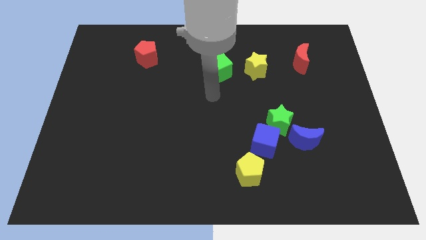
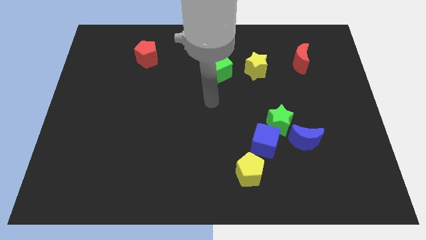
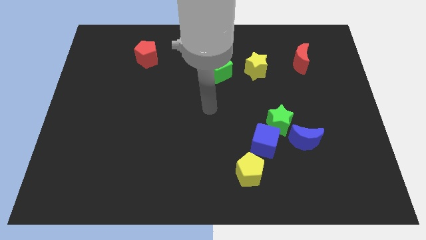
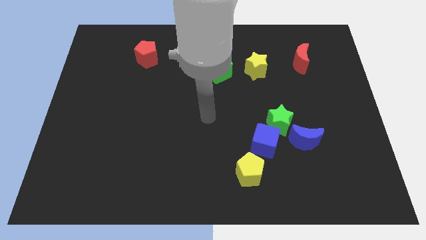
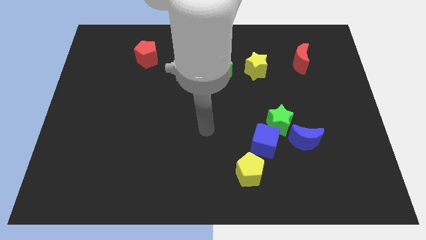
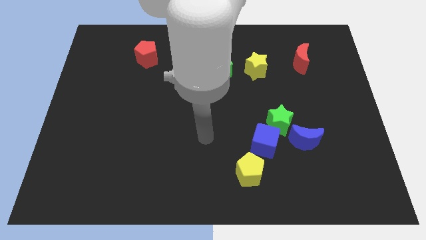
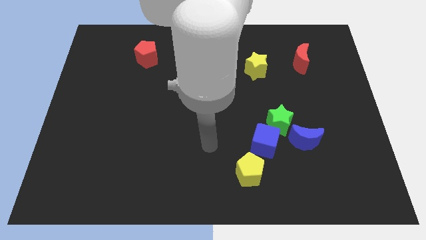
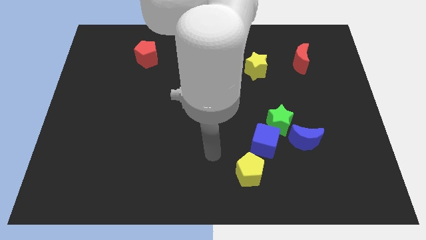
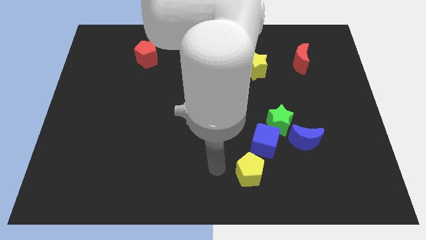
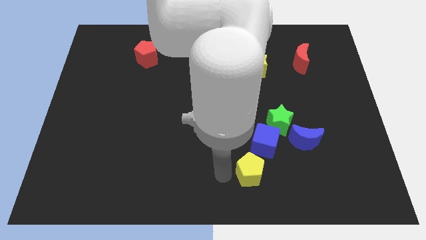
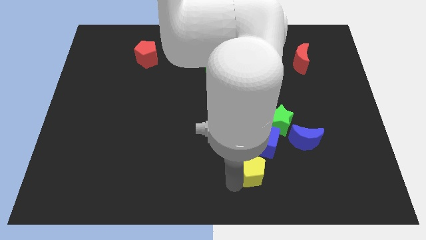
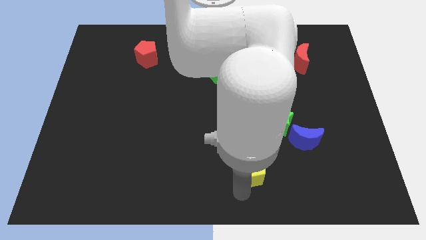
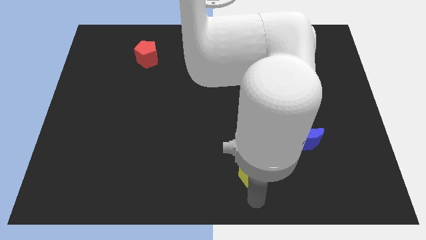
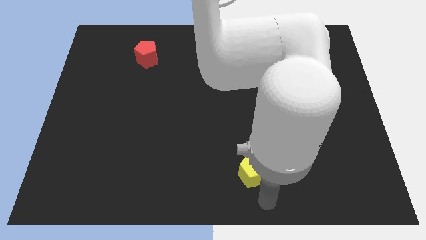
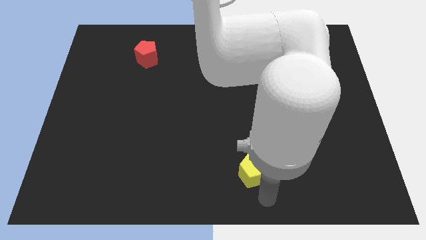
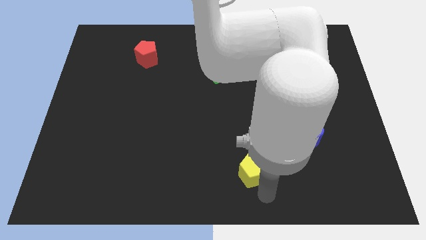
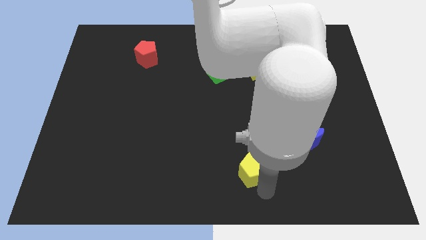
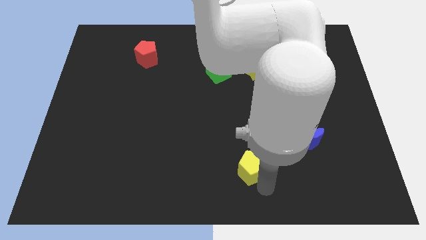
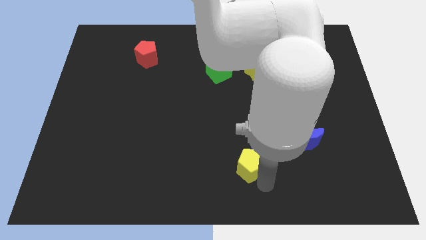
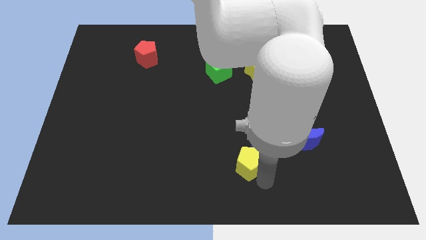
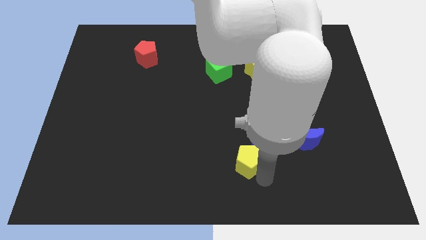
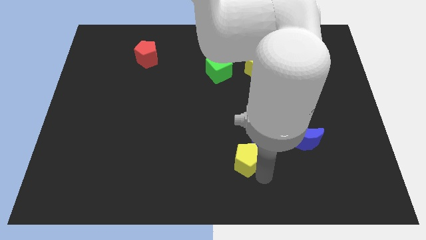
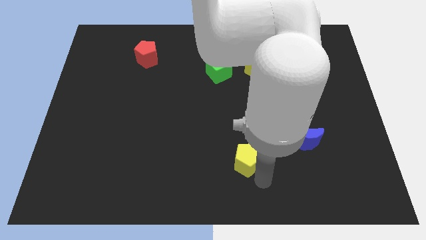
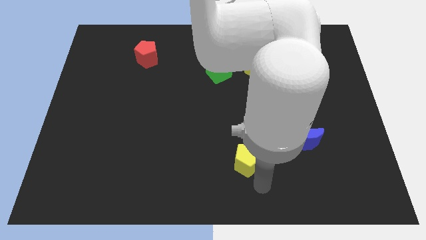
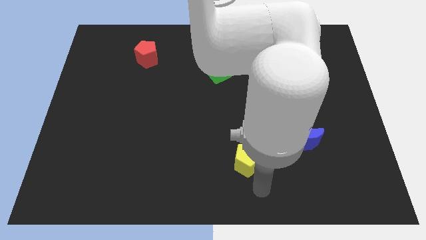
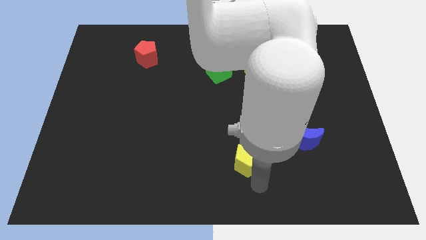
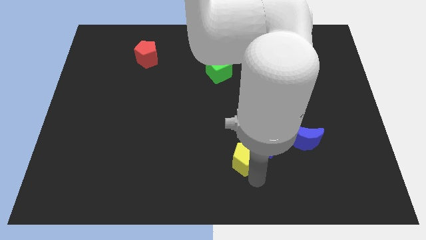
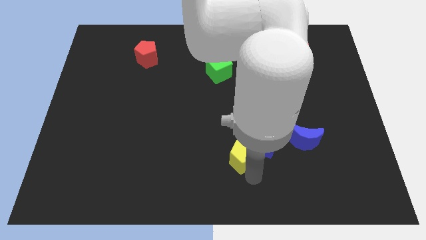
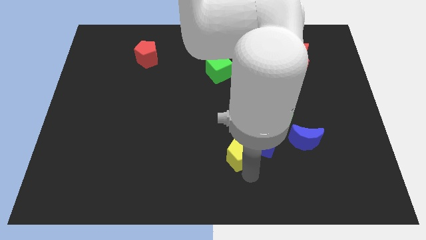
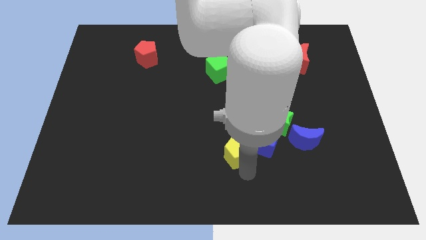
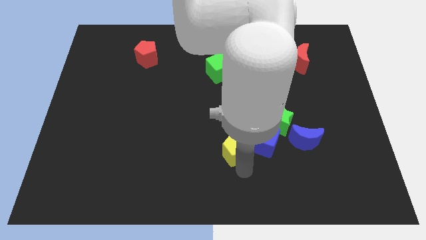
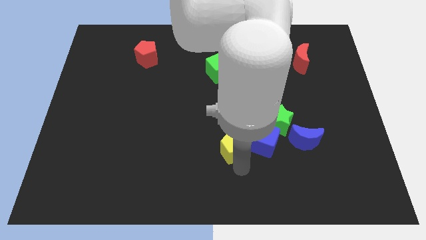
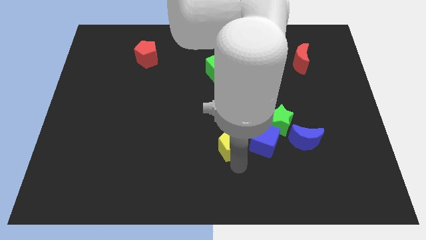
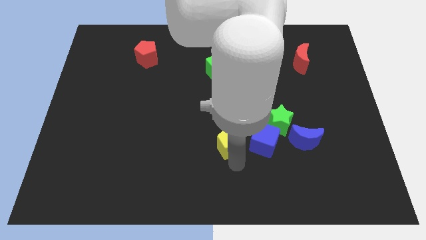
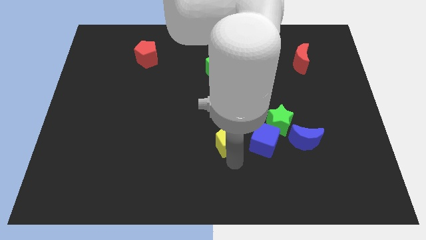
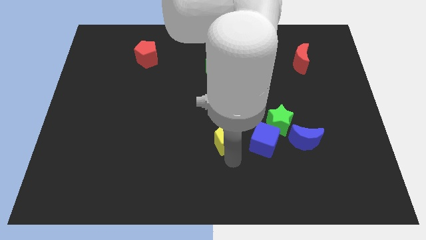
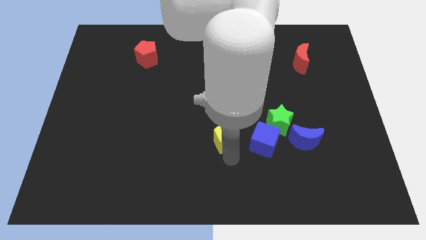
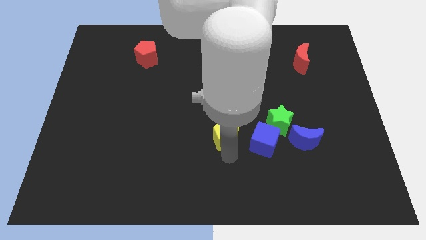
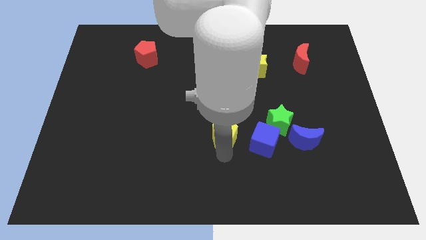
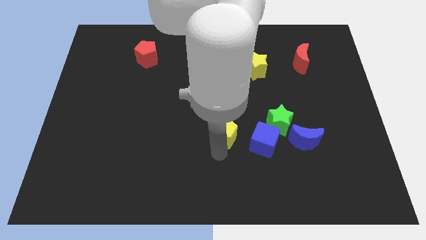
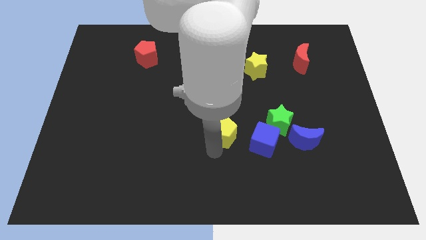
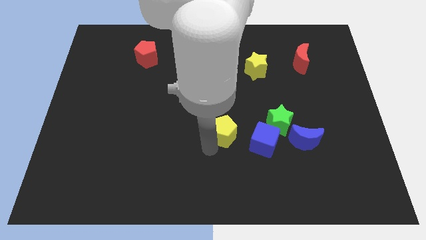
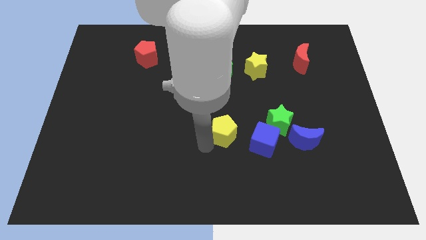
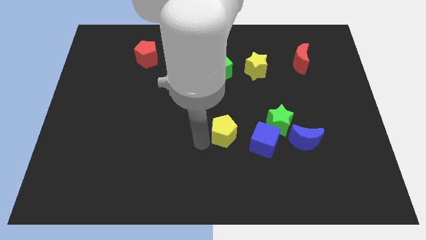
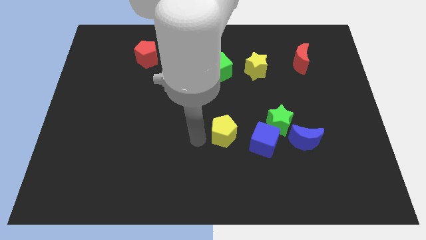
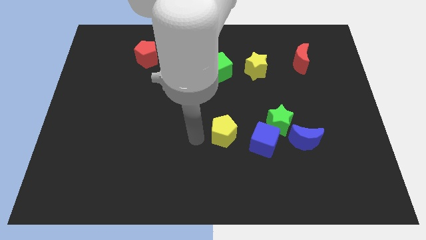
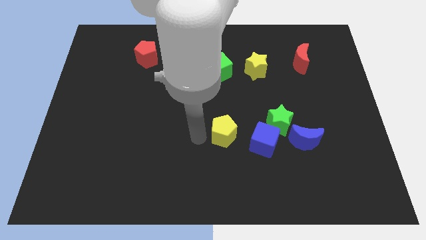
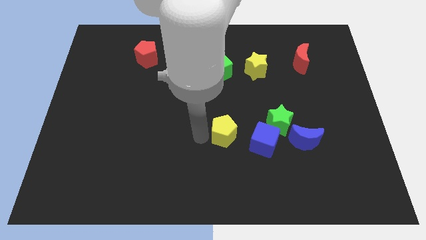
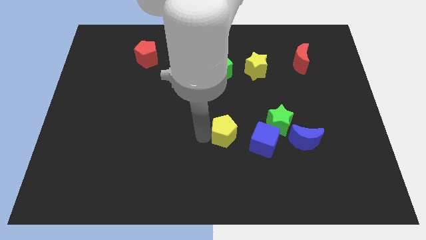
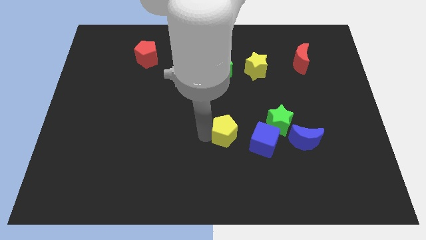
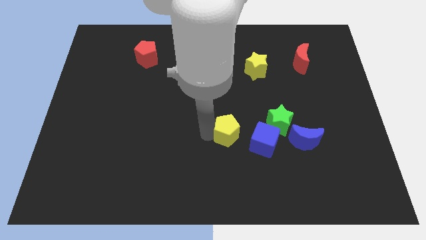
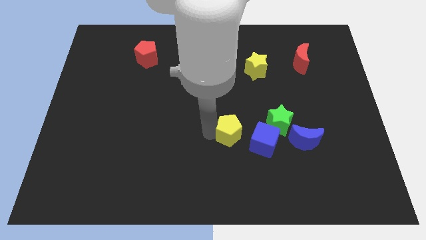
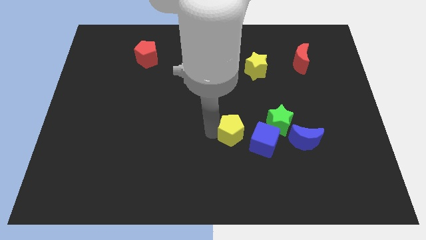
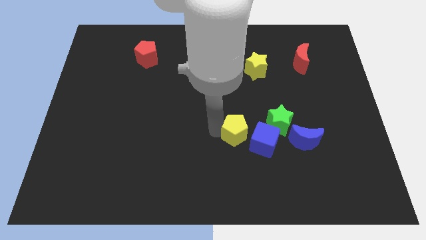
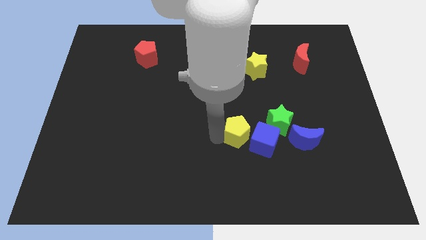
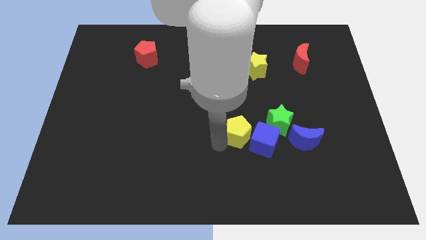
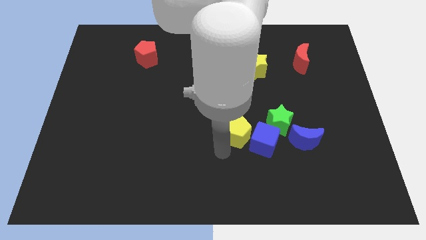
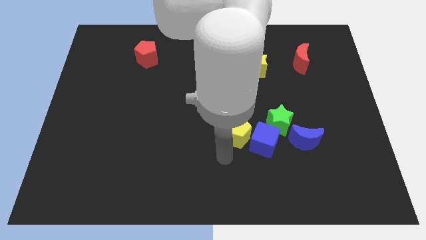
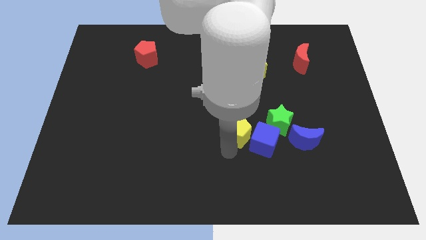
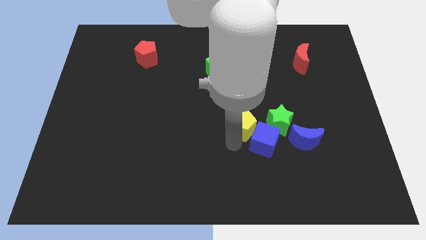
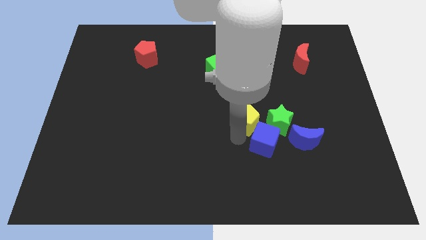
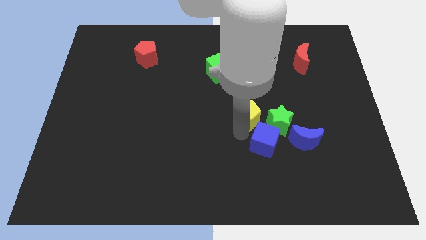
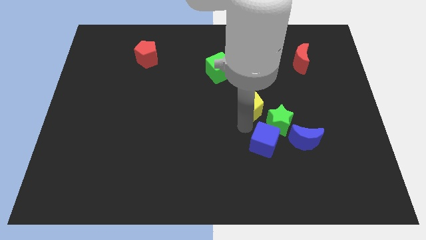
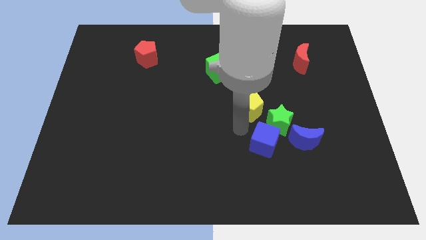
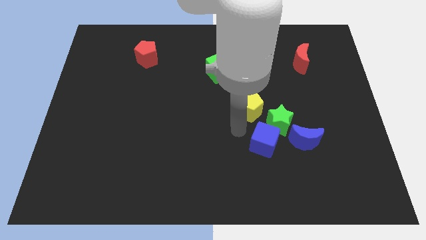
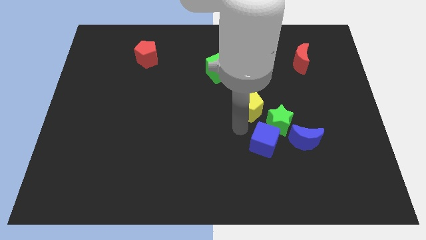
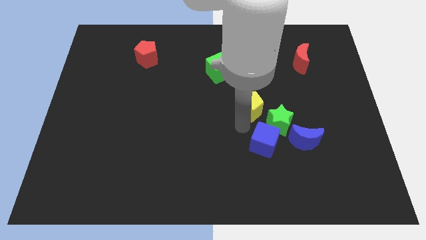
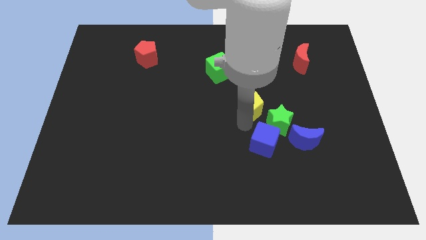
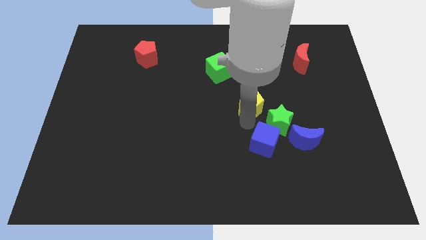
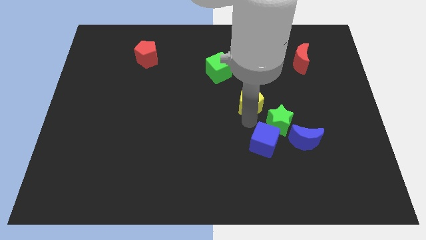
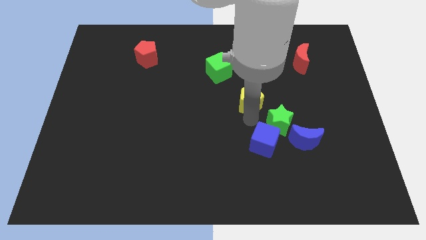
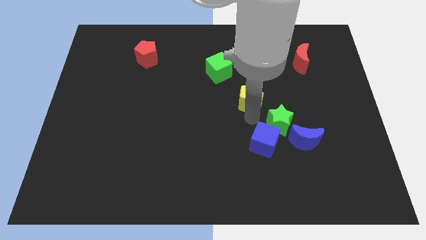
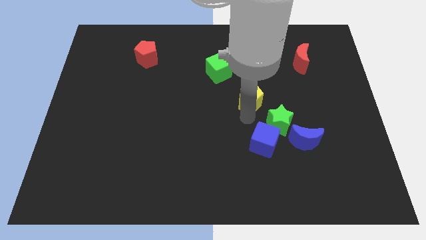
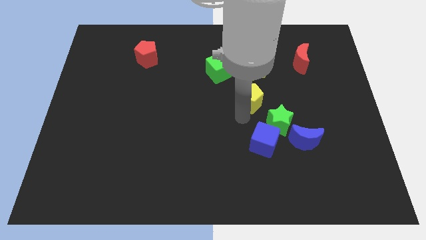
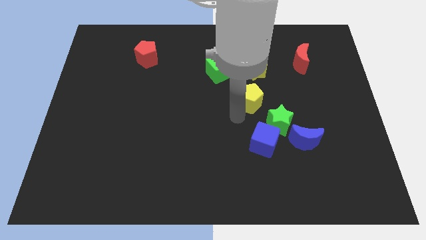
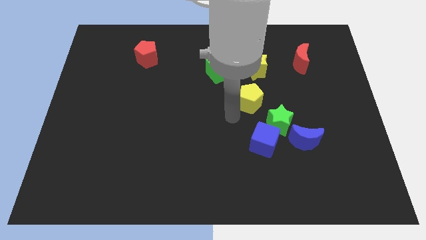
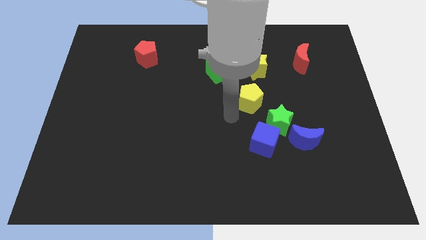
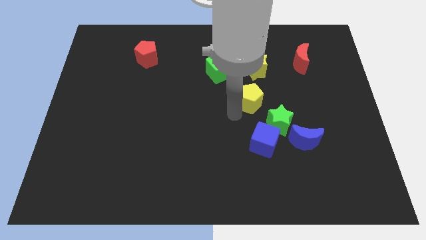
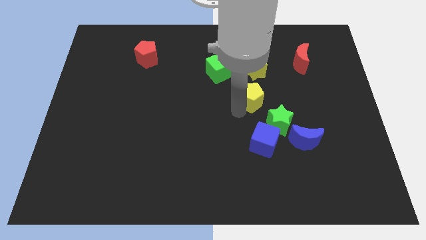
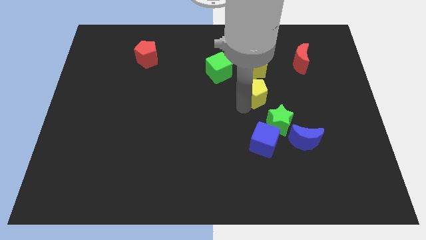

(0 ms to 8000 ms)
put the yellow pentagon to the top side of the green star

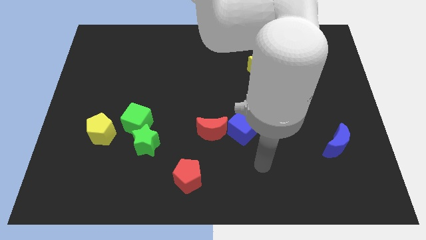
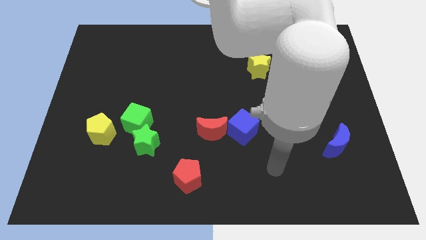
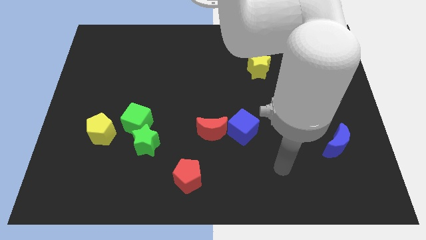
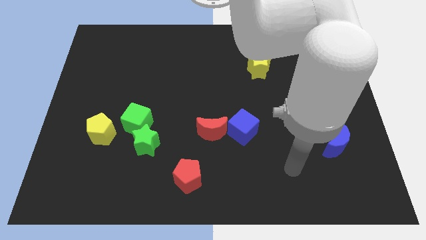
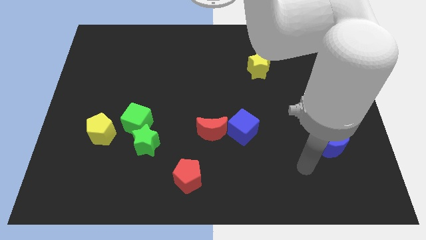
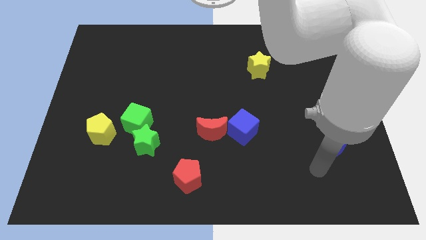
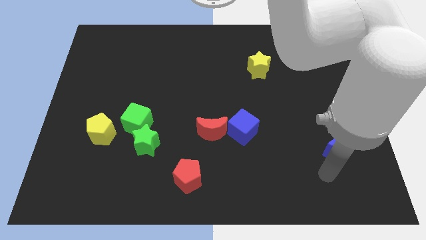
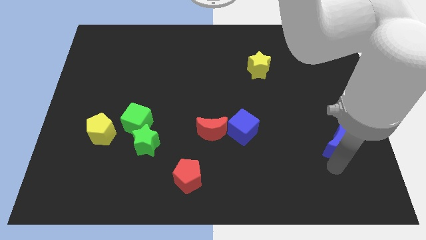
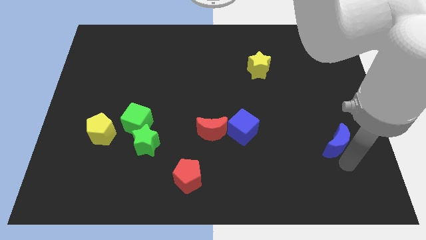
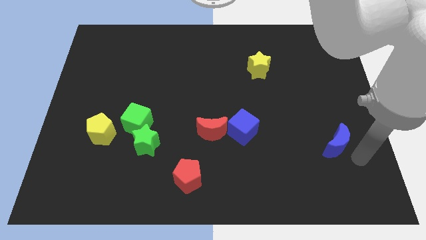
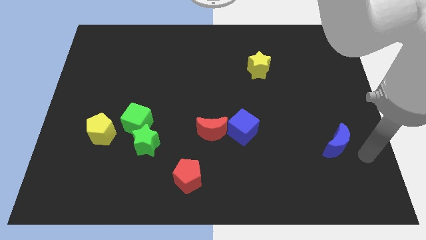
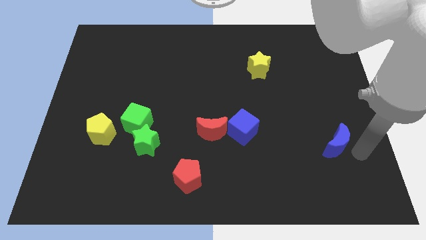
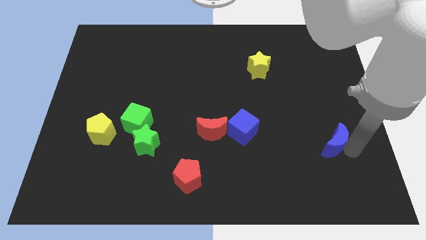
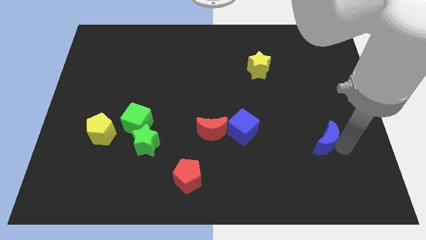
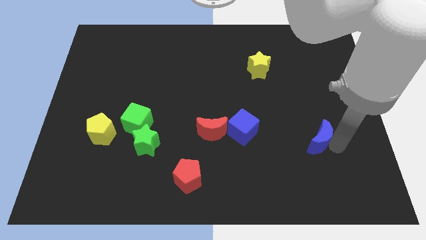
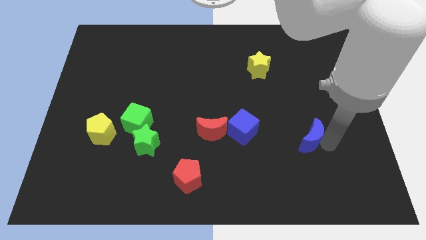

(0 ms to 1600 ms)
move the blue moon to the right side of the blue cube
